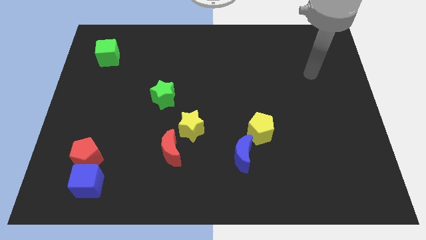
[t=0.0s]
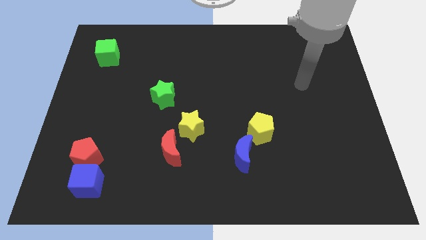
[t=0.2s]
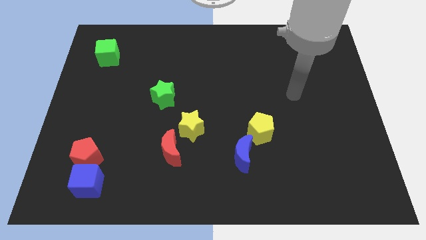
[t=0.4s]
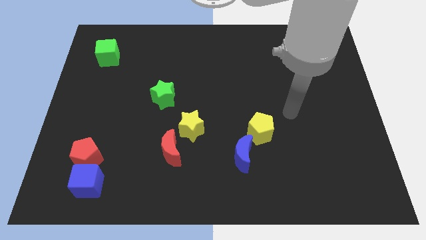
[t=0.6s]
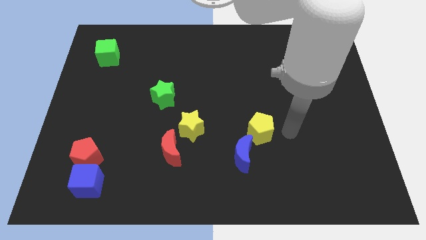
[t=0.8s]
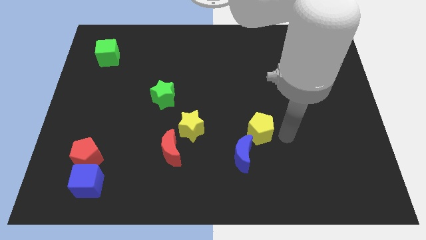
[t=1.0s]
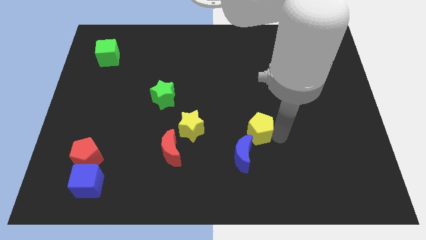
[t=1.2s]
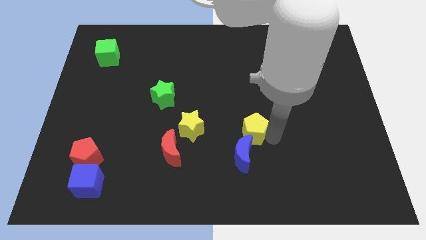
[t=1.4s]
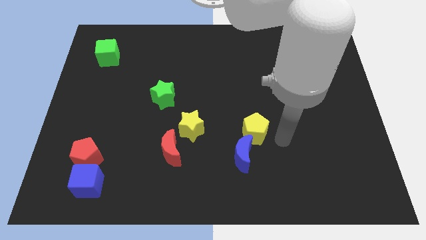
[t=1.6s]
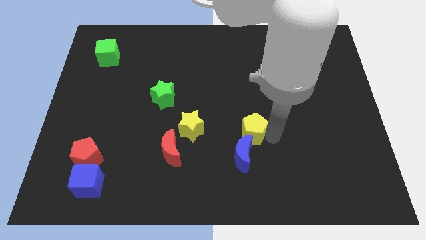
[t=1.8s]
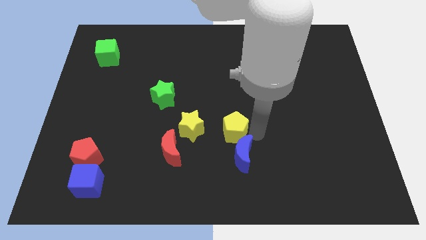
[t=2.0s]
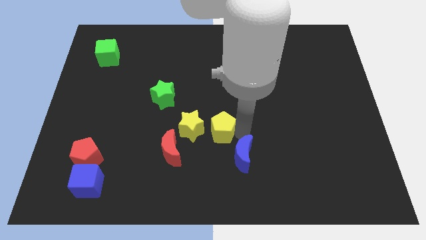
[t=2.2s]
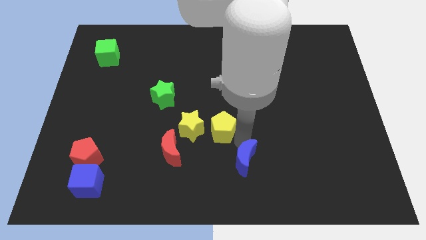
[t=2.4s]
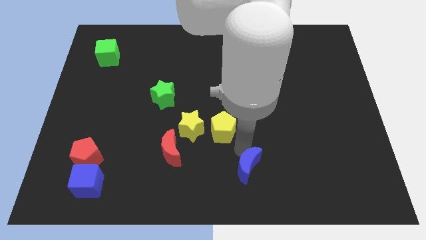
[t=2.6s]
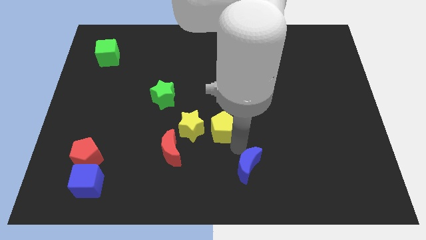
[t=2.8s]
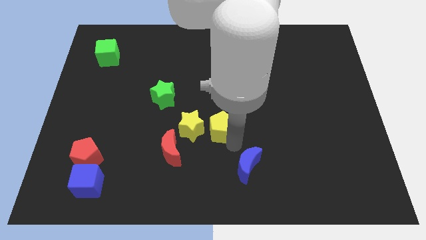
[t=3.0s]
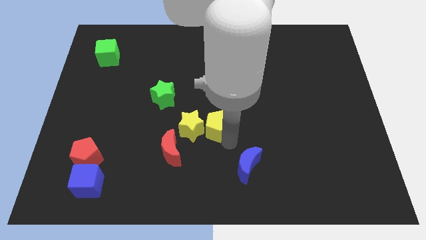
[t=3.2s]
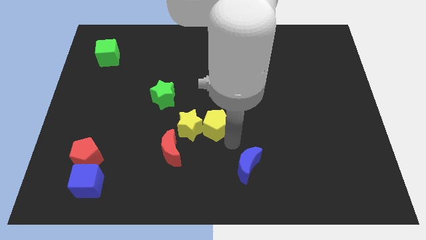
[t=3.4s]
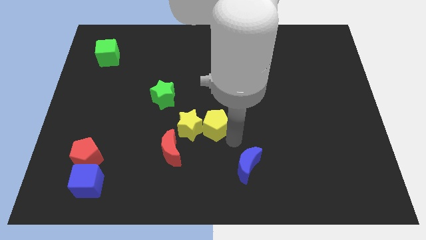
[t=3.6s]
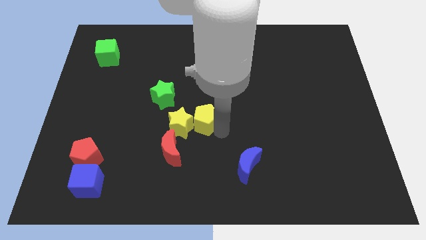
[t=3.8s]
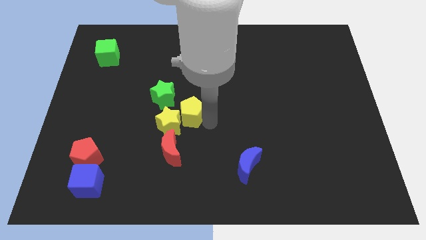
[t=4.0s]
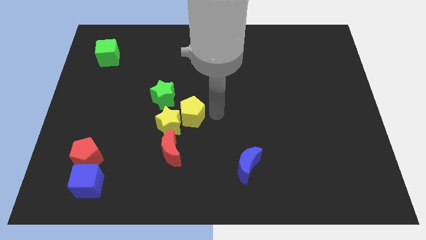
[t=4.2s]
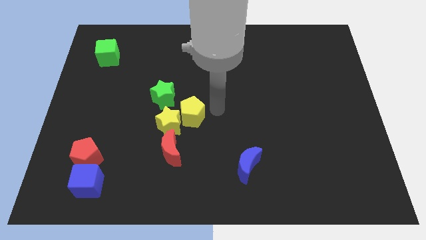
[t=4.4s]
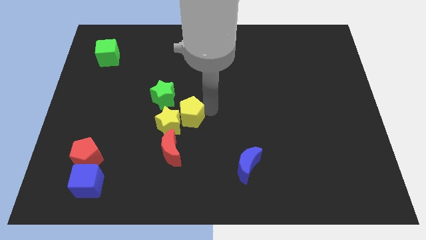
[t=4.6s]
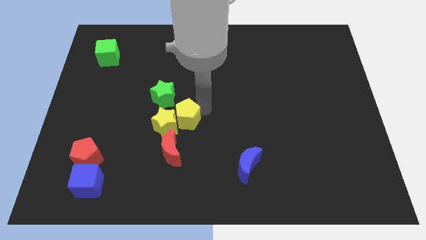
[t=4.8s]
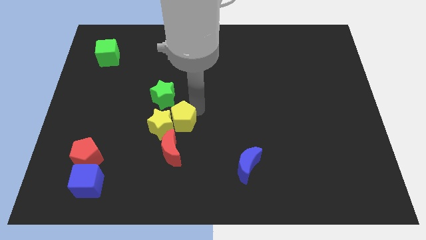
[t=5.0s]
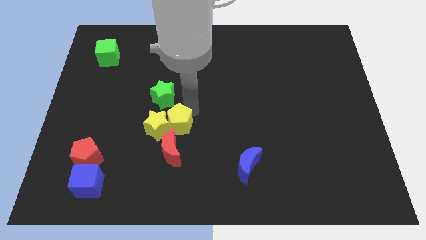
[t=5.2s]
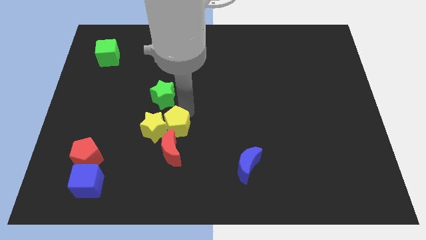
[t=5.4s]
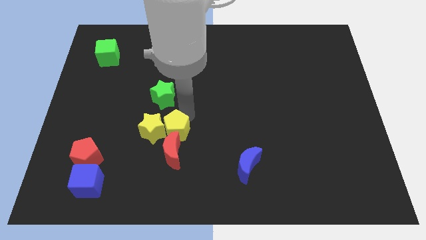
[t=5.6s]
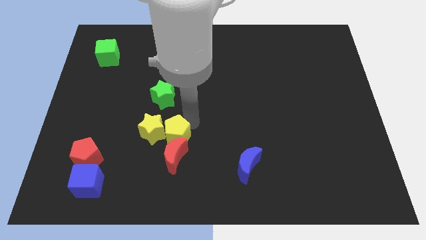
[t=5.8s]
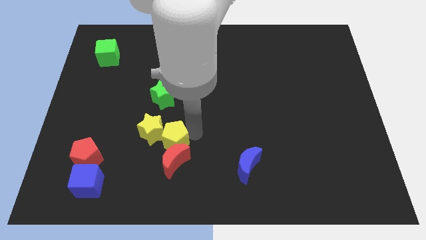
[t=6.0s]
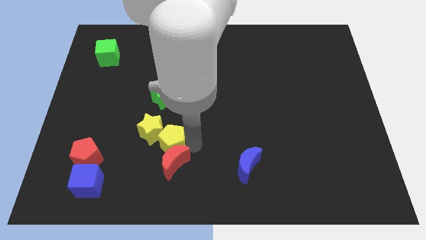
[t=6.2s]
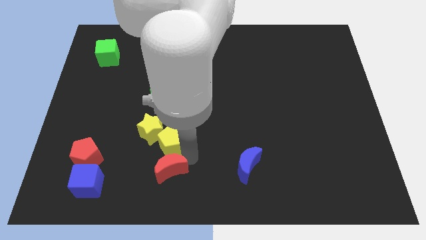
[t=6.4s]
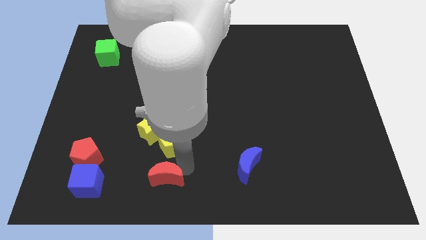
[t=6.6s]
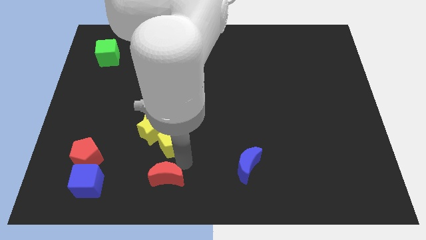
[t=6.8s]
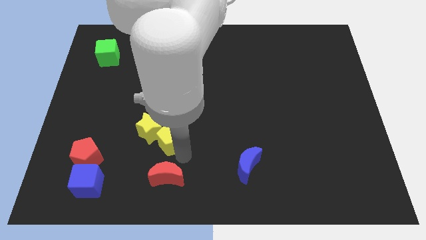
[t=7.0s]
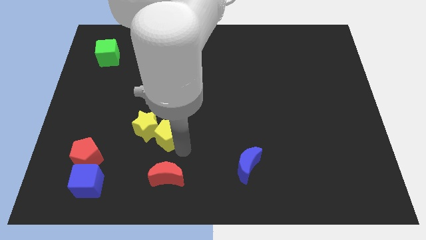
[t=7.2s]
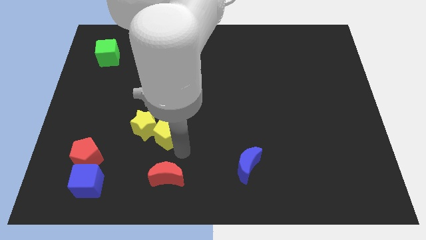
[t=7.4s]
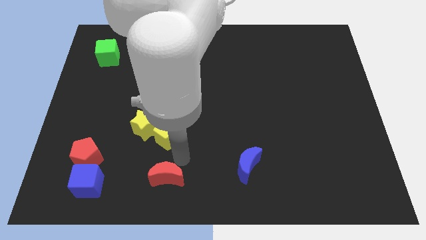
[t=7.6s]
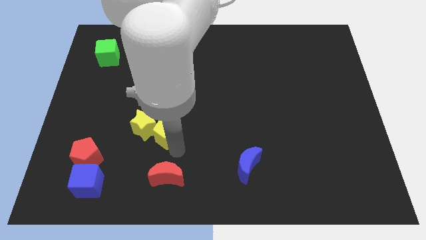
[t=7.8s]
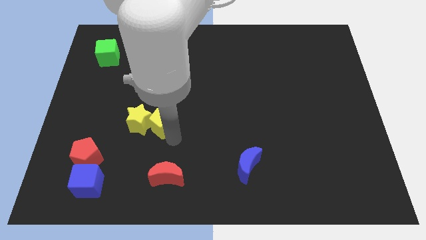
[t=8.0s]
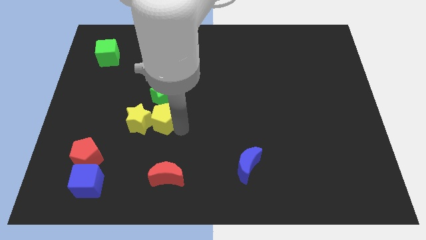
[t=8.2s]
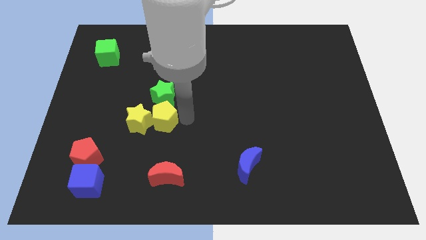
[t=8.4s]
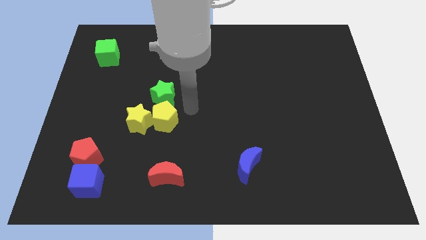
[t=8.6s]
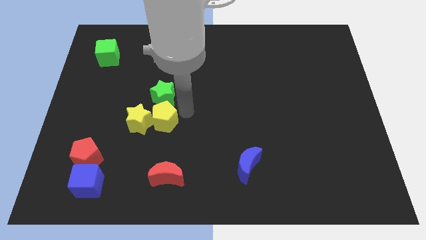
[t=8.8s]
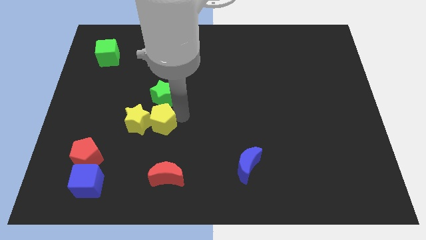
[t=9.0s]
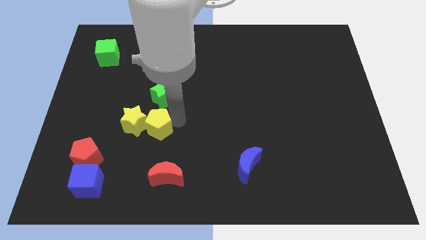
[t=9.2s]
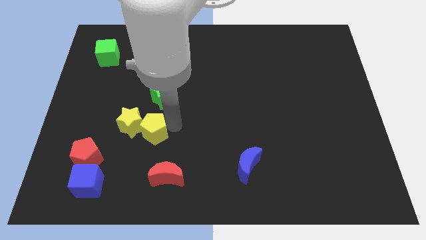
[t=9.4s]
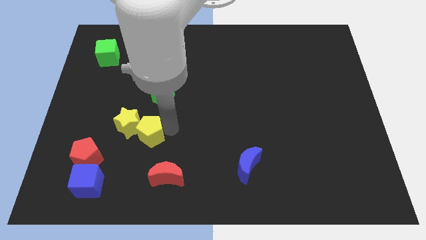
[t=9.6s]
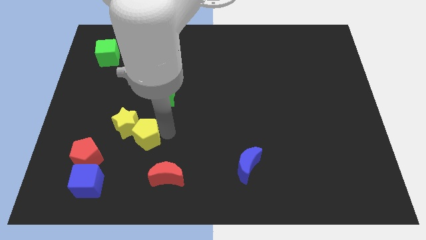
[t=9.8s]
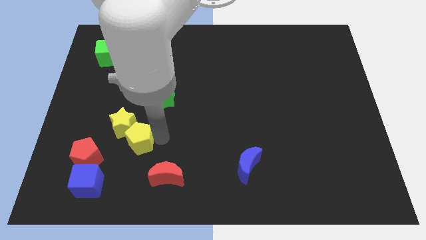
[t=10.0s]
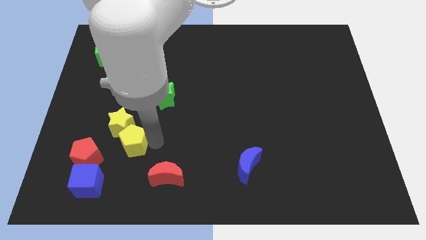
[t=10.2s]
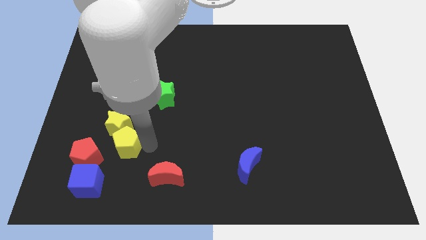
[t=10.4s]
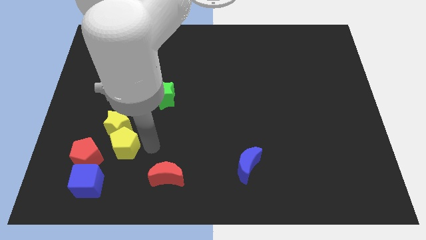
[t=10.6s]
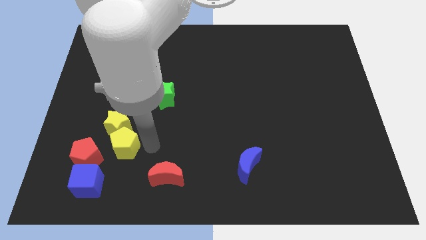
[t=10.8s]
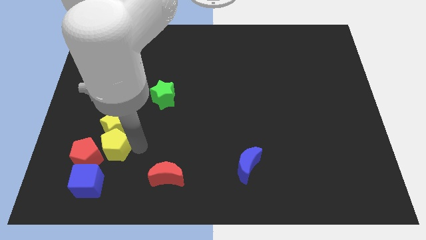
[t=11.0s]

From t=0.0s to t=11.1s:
slide the yellow pentagon towards the red pentagon

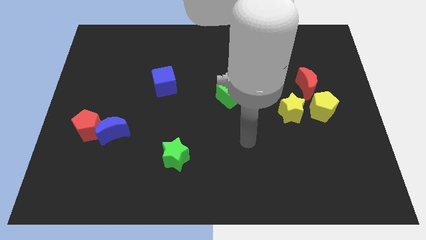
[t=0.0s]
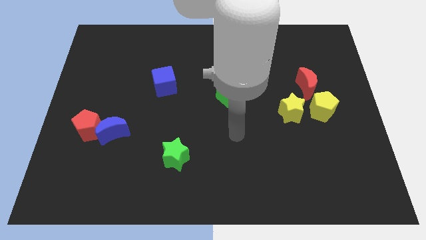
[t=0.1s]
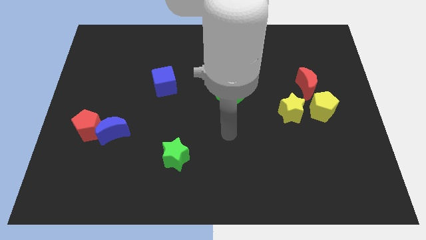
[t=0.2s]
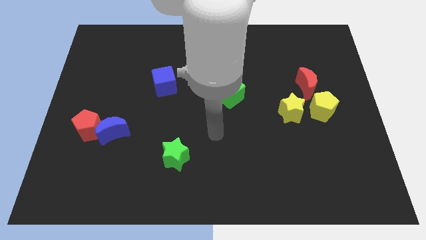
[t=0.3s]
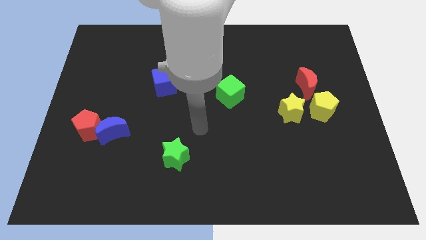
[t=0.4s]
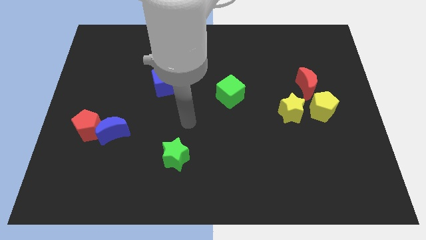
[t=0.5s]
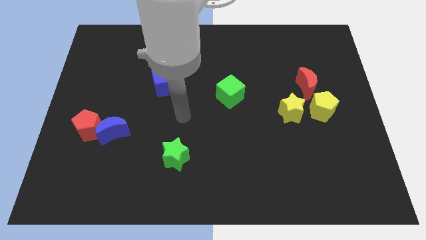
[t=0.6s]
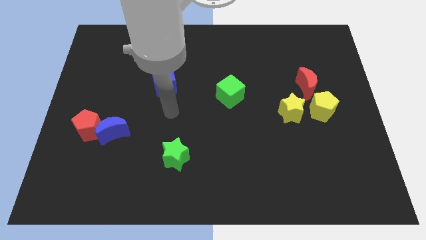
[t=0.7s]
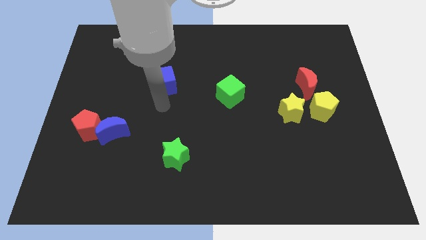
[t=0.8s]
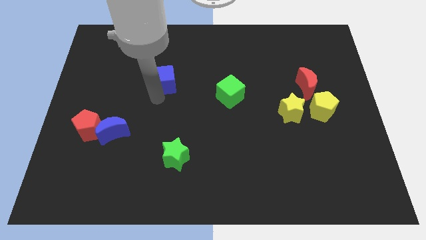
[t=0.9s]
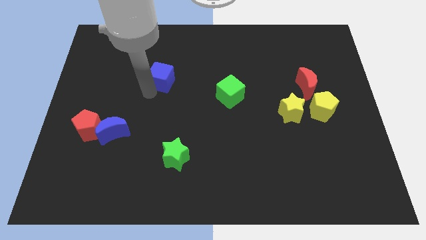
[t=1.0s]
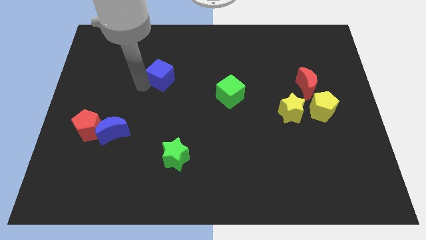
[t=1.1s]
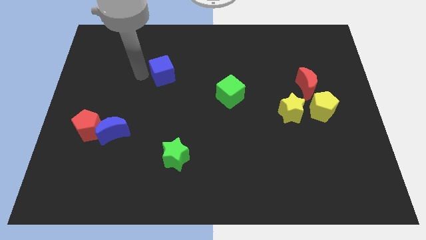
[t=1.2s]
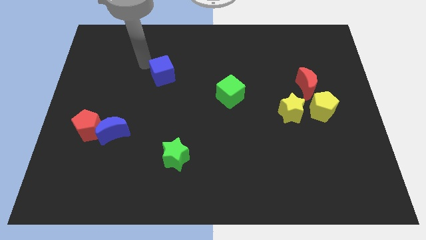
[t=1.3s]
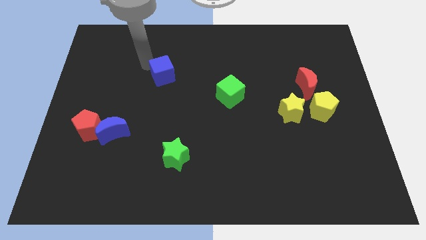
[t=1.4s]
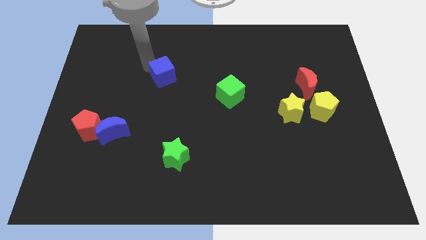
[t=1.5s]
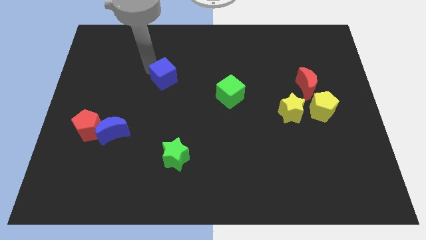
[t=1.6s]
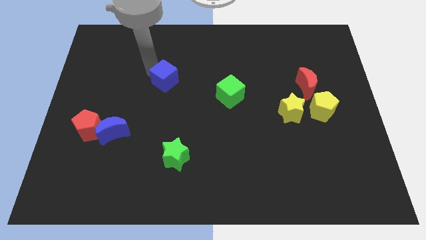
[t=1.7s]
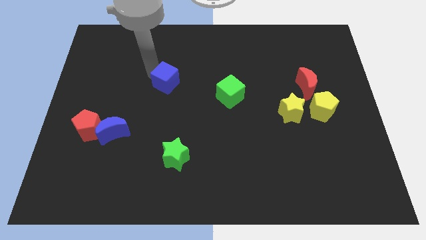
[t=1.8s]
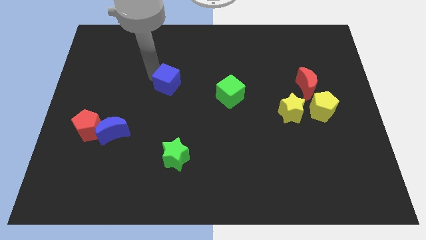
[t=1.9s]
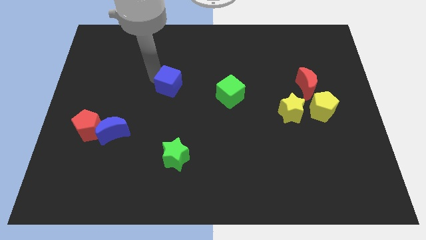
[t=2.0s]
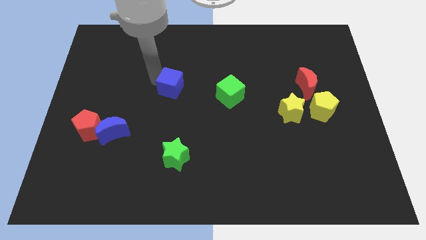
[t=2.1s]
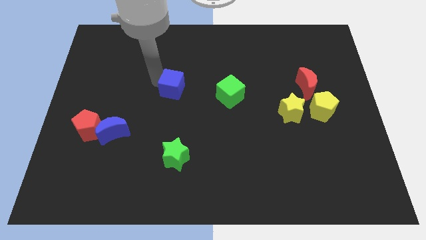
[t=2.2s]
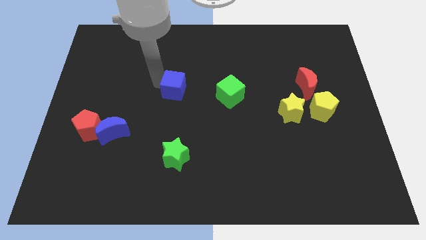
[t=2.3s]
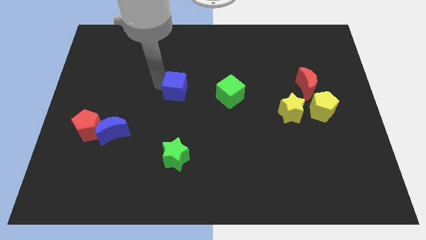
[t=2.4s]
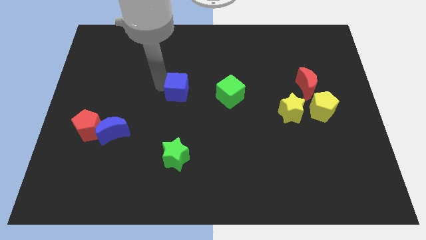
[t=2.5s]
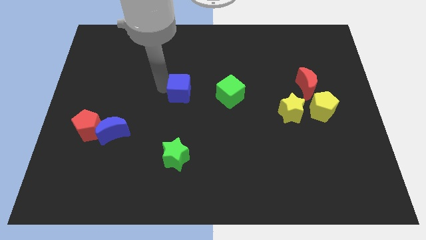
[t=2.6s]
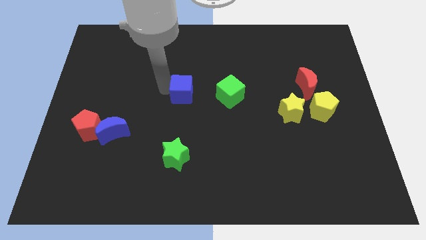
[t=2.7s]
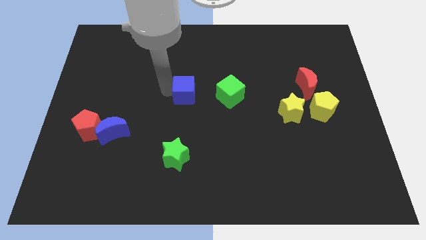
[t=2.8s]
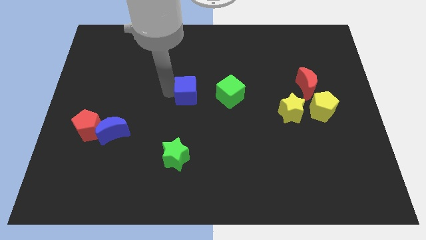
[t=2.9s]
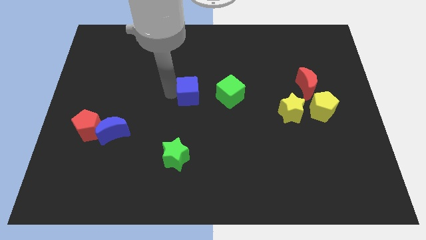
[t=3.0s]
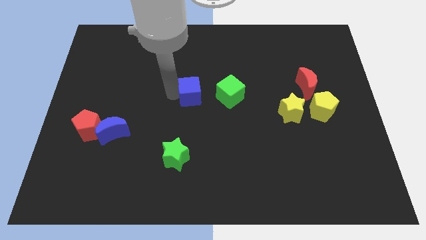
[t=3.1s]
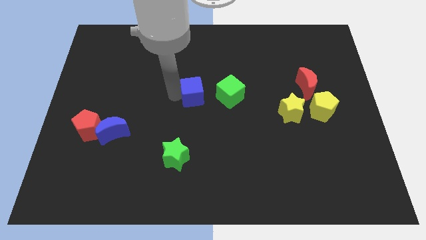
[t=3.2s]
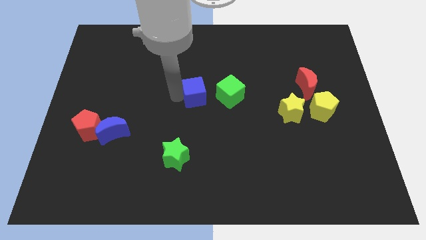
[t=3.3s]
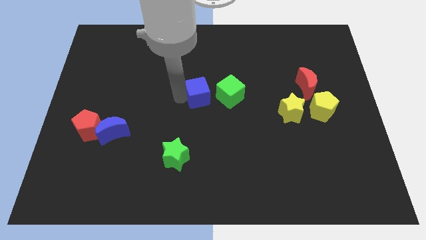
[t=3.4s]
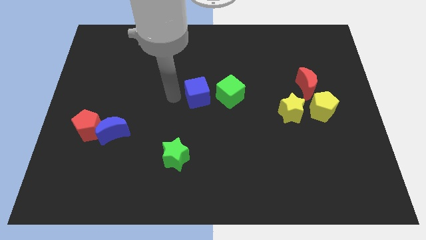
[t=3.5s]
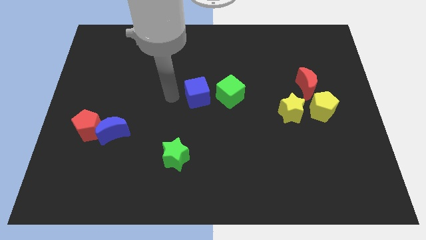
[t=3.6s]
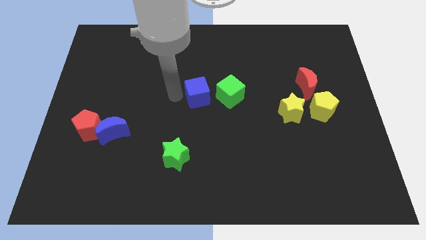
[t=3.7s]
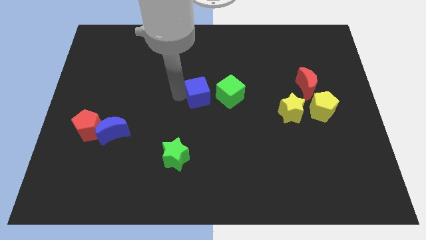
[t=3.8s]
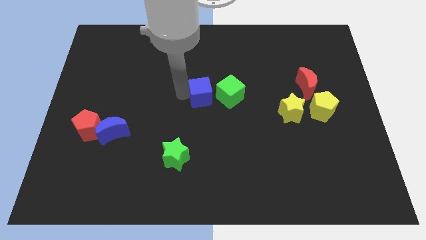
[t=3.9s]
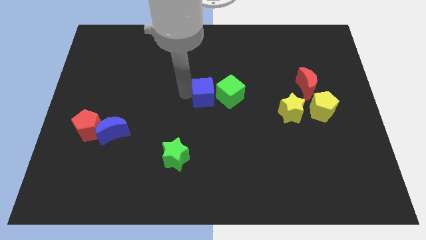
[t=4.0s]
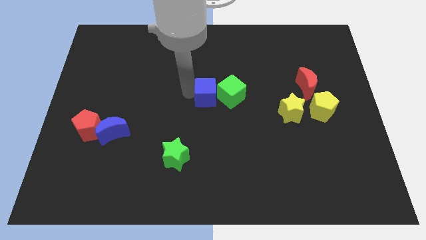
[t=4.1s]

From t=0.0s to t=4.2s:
push the blue cube towards the green cube
